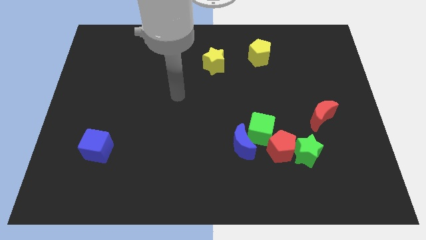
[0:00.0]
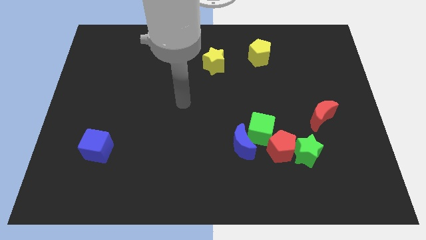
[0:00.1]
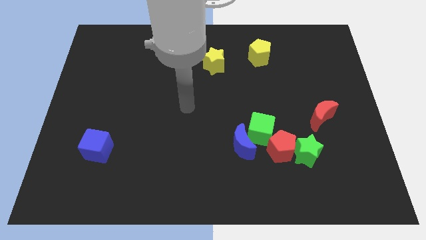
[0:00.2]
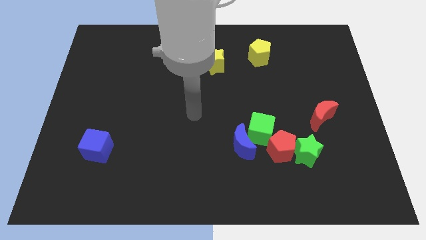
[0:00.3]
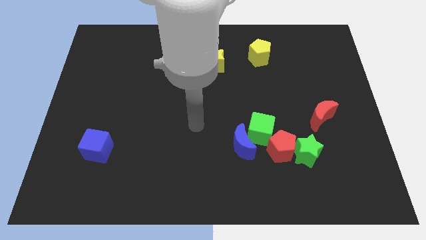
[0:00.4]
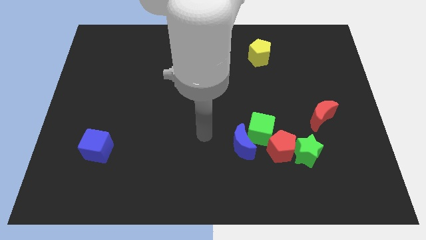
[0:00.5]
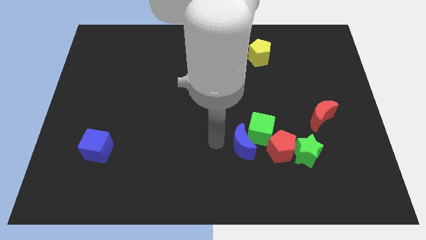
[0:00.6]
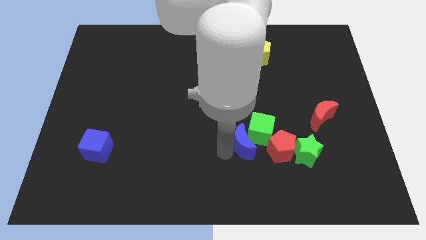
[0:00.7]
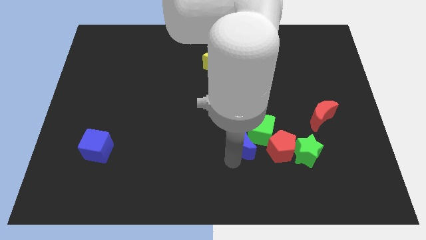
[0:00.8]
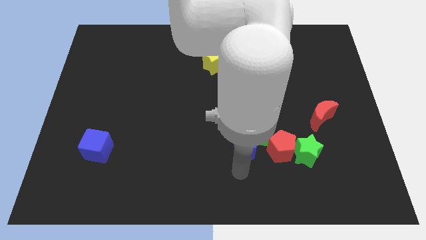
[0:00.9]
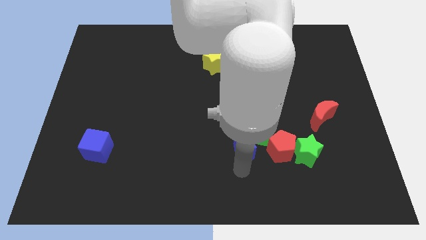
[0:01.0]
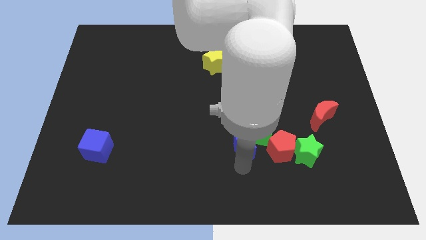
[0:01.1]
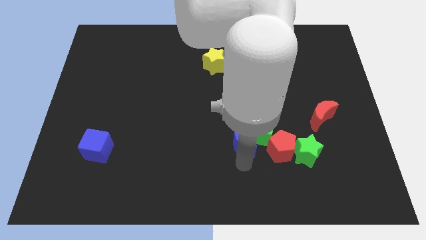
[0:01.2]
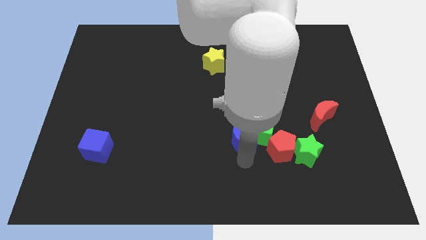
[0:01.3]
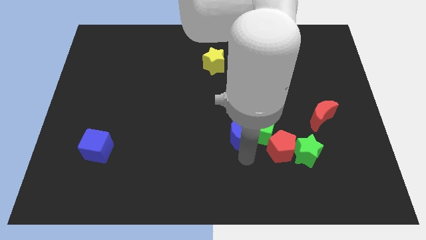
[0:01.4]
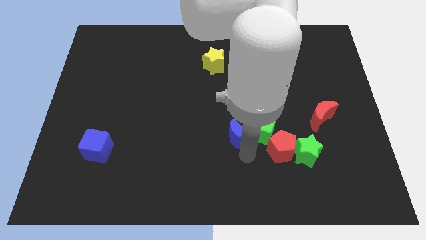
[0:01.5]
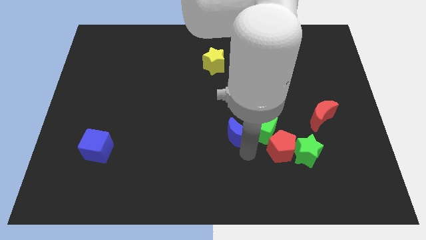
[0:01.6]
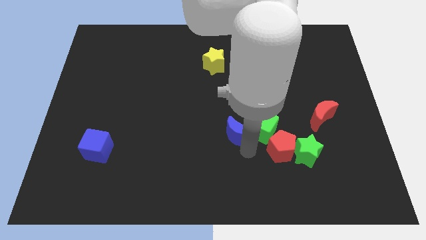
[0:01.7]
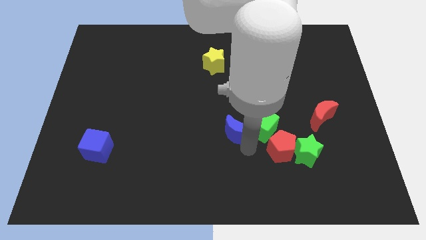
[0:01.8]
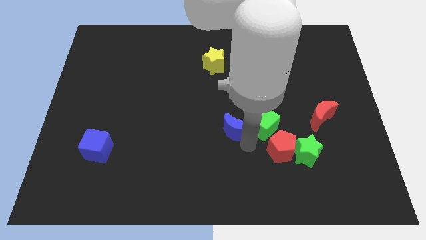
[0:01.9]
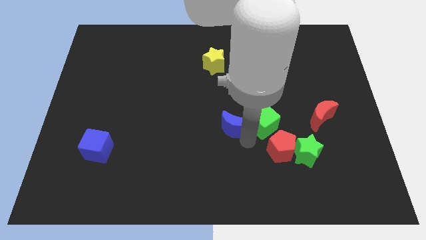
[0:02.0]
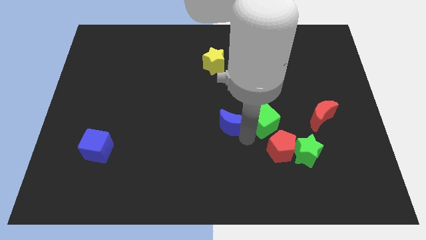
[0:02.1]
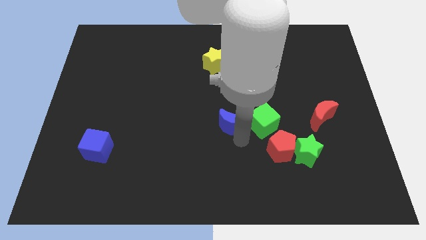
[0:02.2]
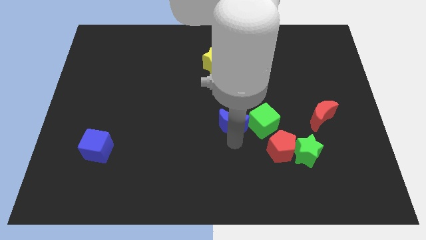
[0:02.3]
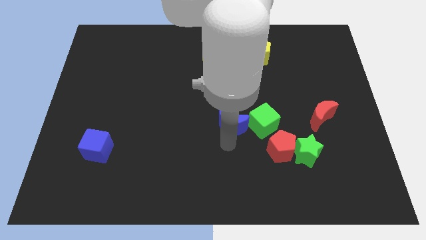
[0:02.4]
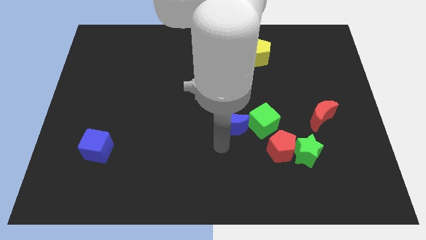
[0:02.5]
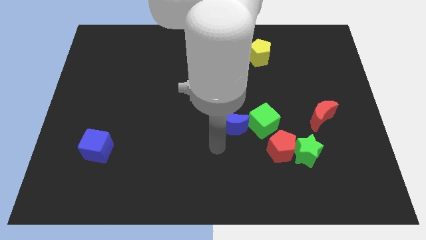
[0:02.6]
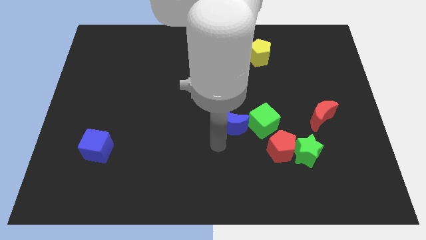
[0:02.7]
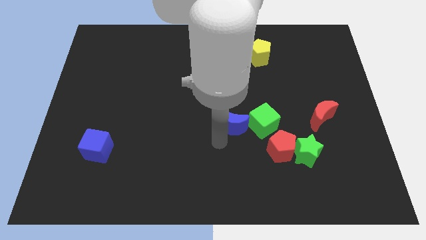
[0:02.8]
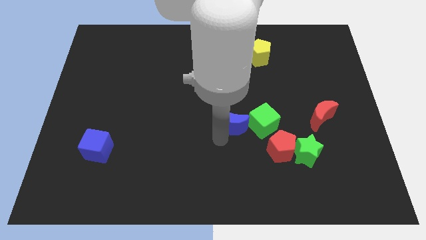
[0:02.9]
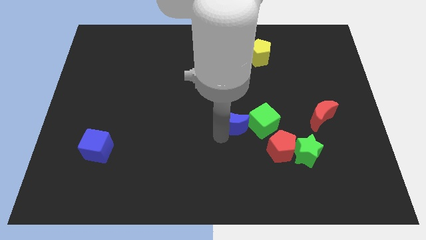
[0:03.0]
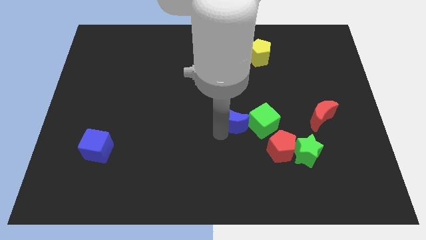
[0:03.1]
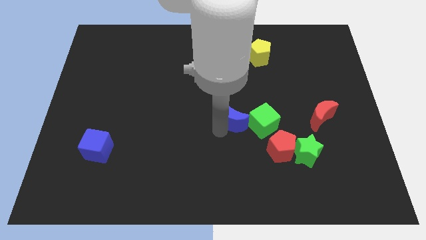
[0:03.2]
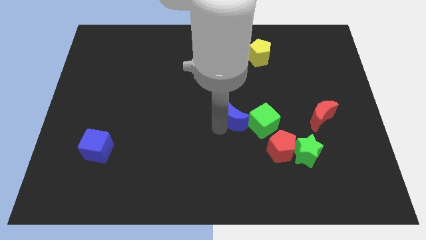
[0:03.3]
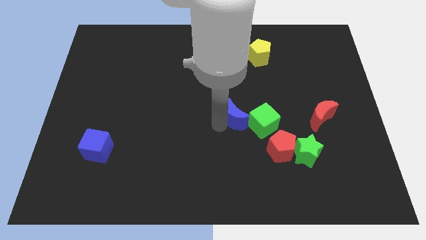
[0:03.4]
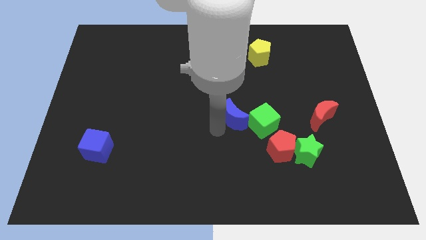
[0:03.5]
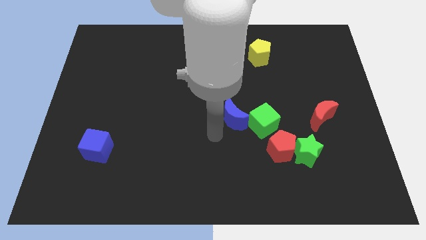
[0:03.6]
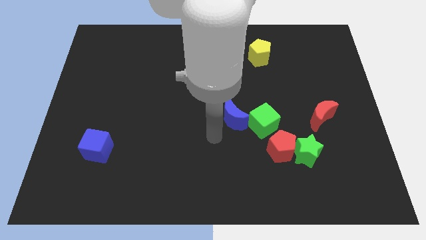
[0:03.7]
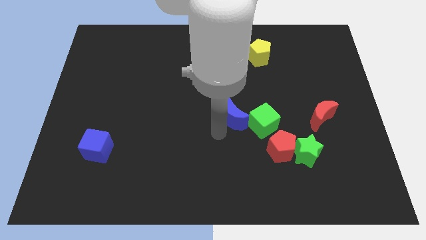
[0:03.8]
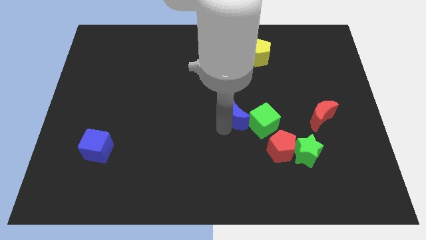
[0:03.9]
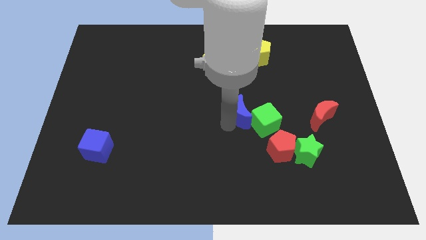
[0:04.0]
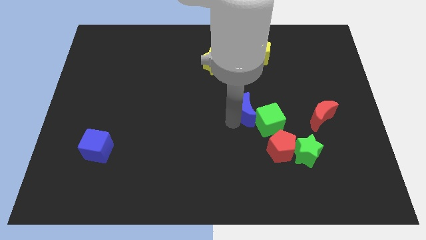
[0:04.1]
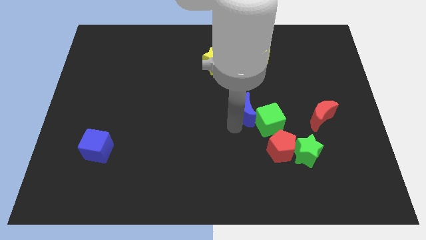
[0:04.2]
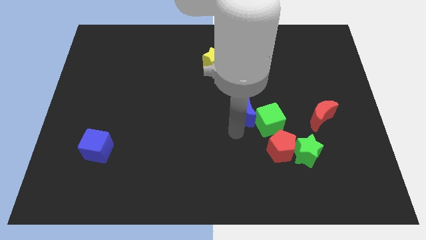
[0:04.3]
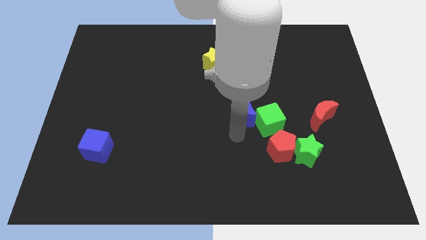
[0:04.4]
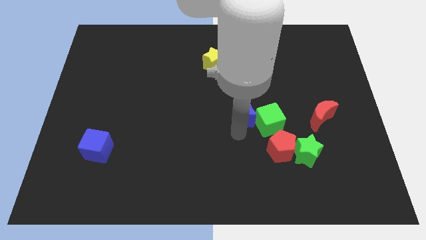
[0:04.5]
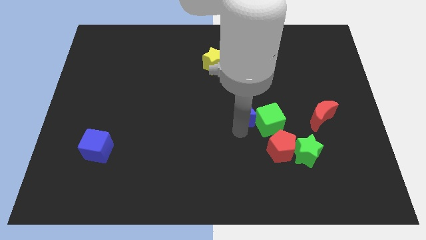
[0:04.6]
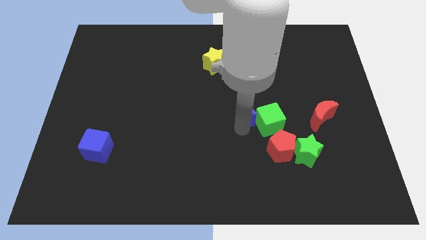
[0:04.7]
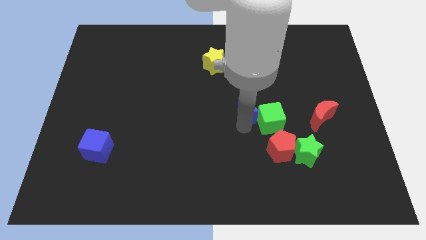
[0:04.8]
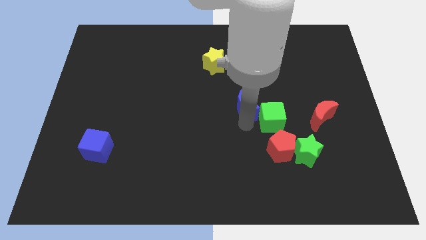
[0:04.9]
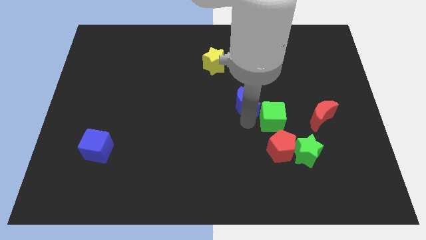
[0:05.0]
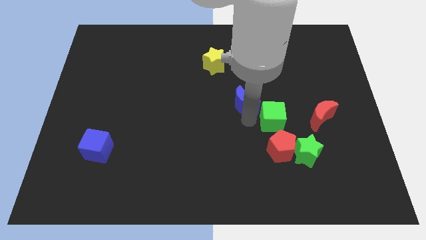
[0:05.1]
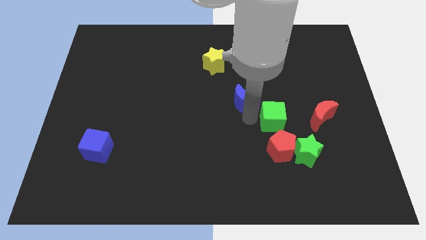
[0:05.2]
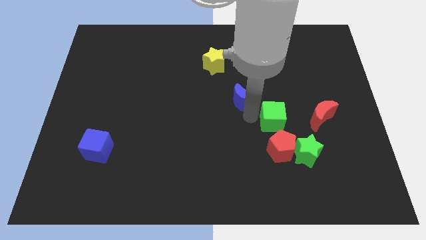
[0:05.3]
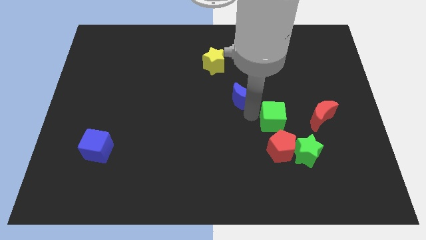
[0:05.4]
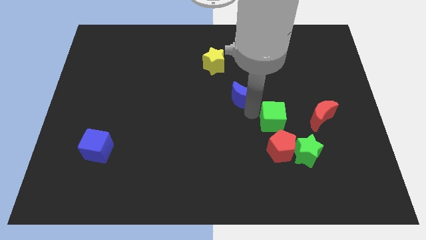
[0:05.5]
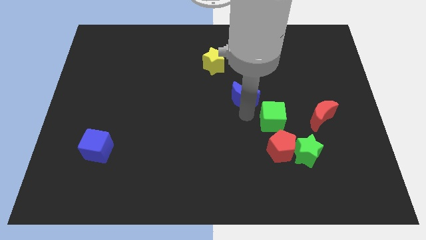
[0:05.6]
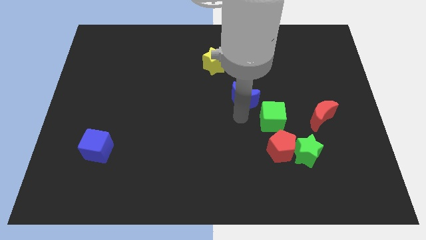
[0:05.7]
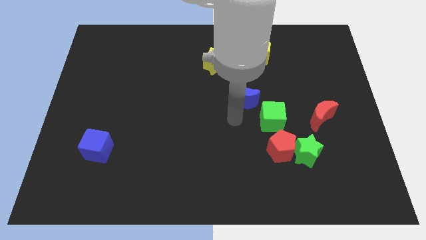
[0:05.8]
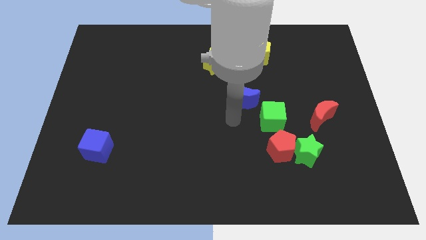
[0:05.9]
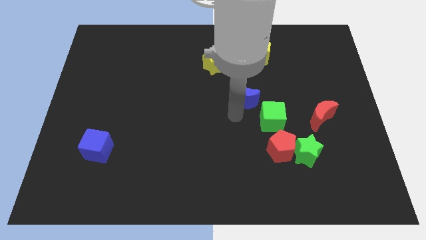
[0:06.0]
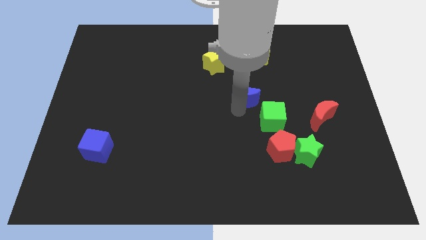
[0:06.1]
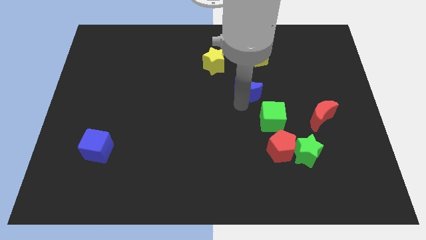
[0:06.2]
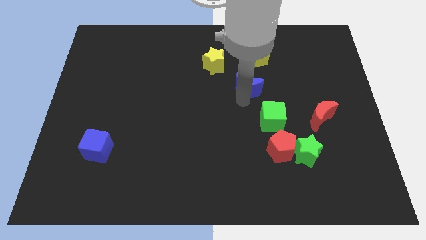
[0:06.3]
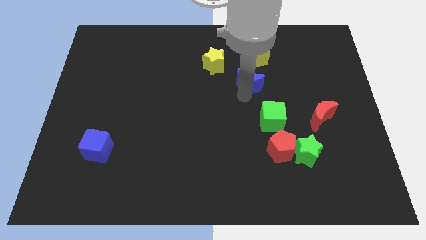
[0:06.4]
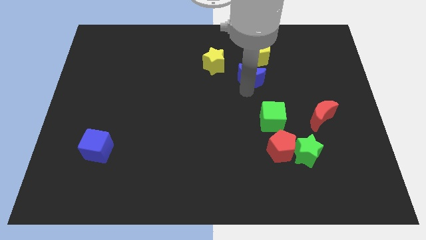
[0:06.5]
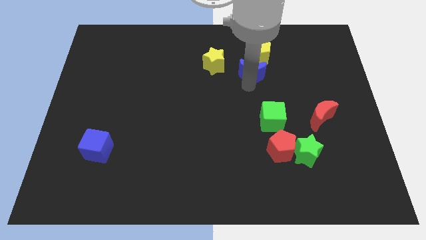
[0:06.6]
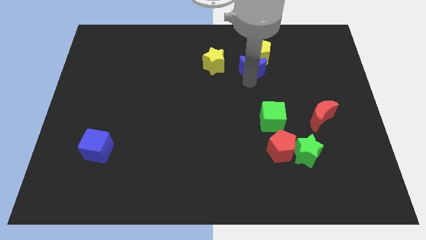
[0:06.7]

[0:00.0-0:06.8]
move the blue moon towards the yellow pentagon
